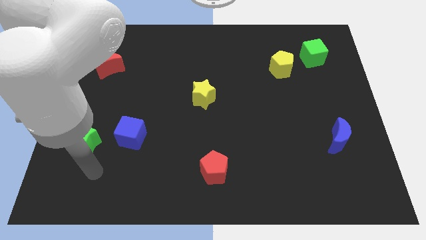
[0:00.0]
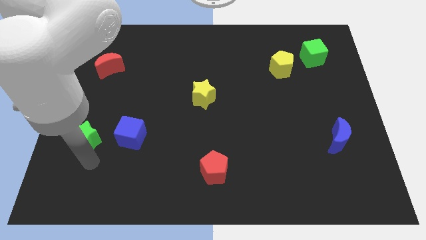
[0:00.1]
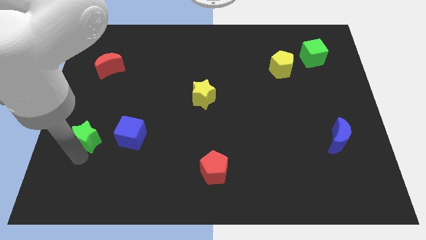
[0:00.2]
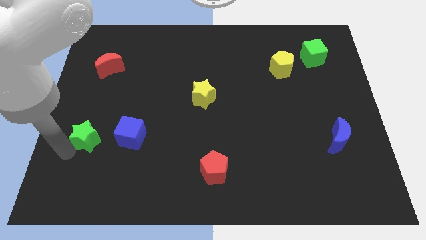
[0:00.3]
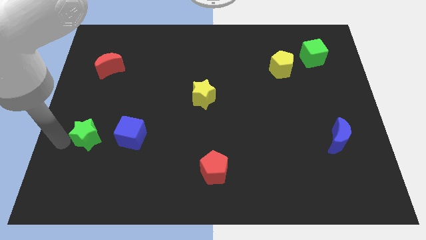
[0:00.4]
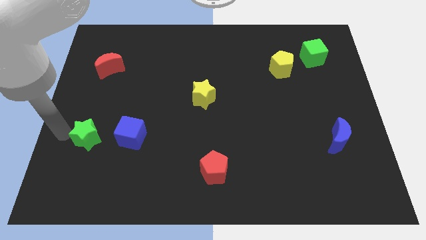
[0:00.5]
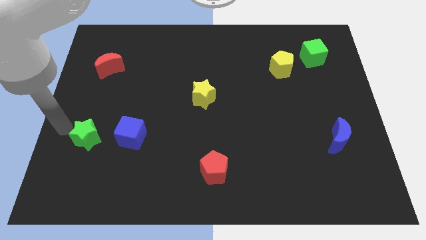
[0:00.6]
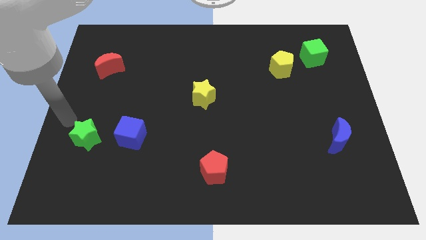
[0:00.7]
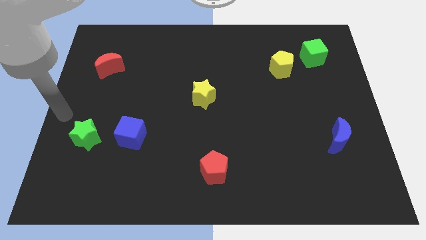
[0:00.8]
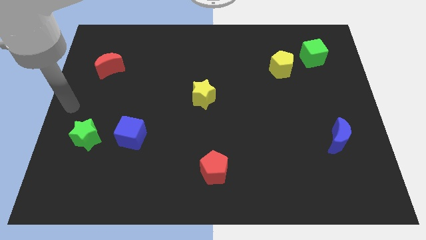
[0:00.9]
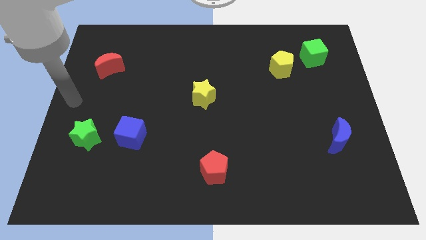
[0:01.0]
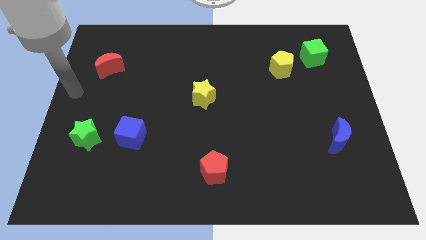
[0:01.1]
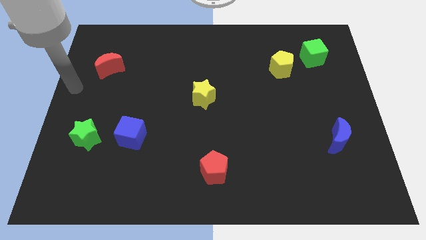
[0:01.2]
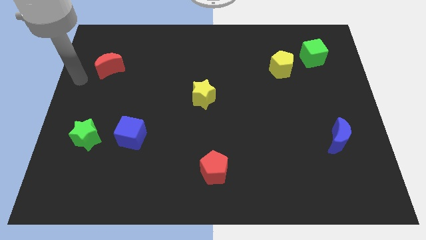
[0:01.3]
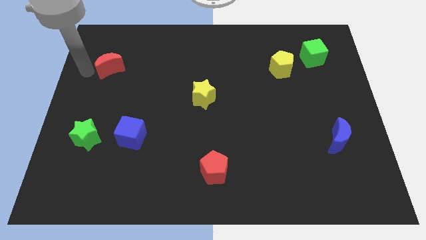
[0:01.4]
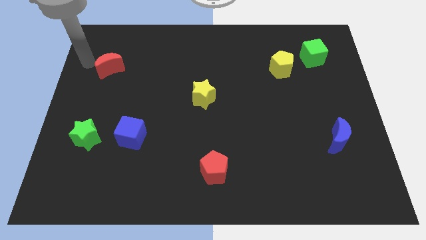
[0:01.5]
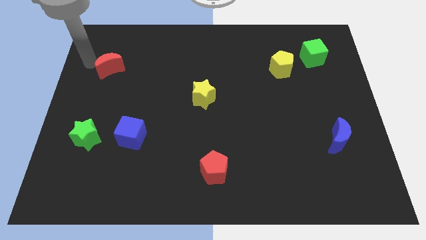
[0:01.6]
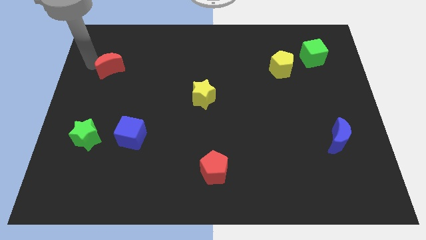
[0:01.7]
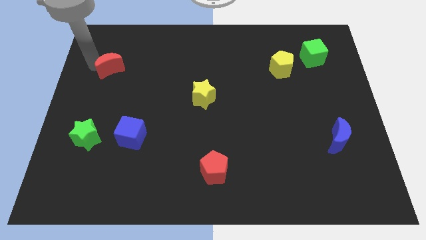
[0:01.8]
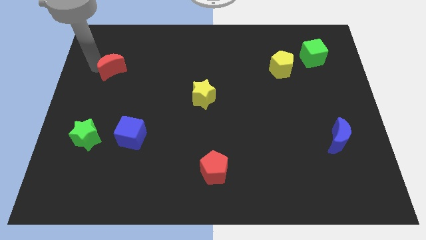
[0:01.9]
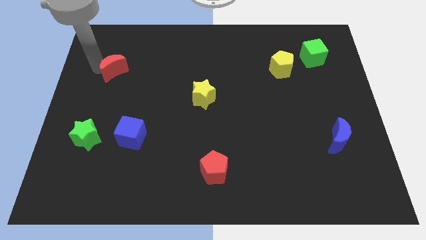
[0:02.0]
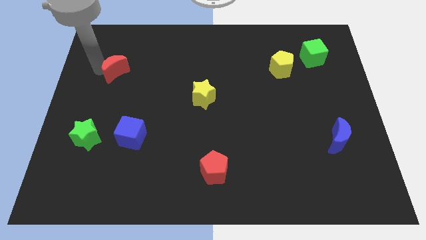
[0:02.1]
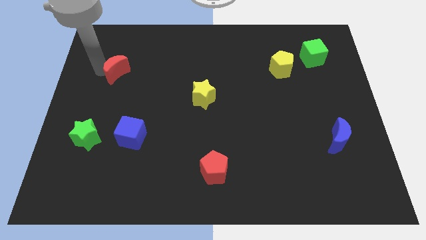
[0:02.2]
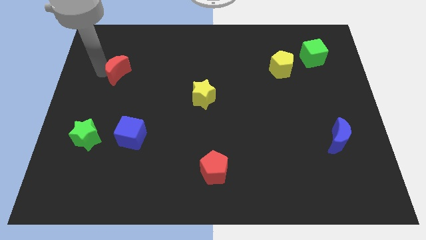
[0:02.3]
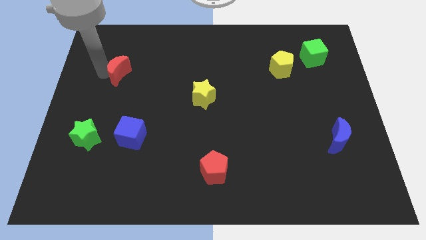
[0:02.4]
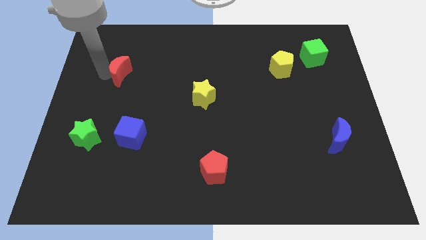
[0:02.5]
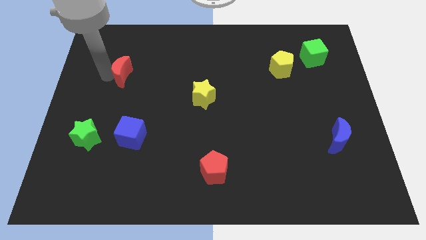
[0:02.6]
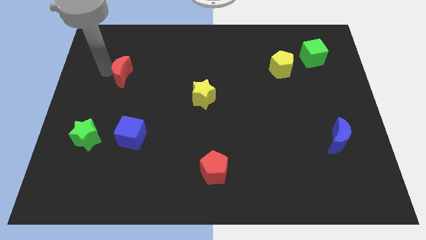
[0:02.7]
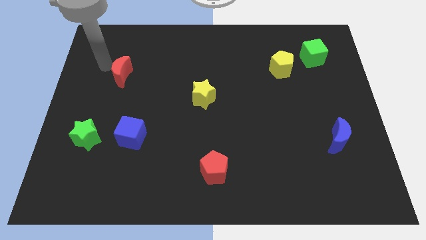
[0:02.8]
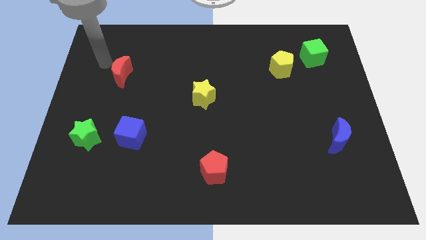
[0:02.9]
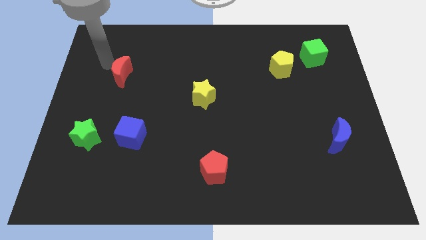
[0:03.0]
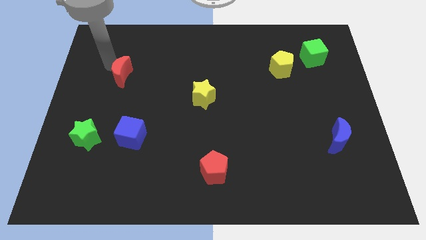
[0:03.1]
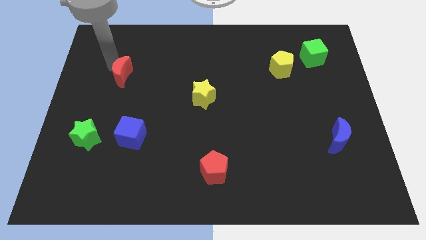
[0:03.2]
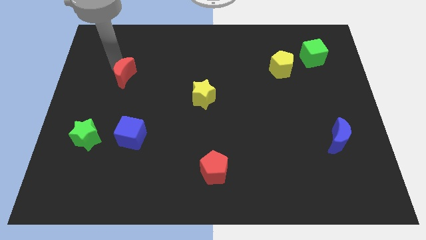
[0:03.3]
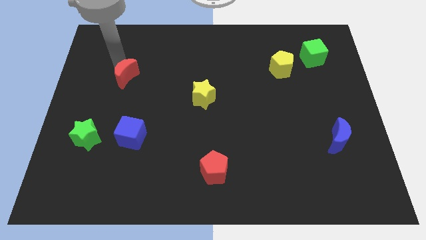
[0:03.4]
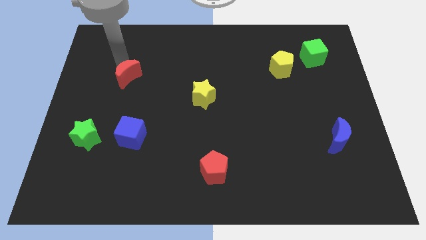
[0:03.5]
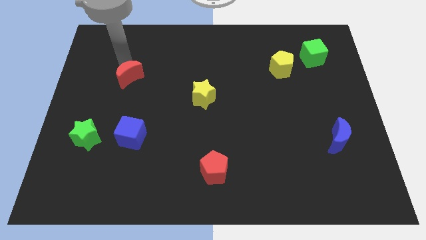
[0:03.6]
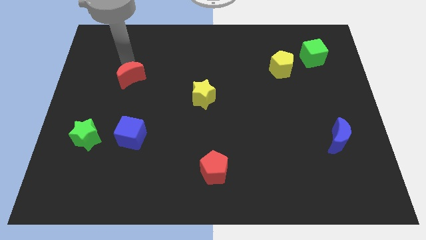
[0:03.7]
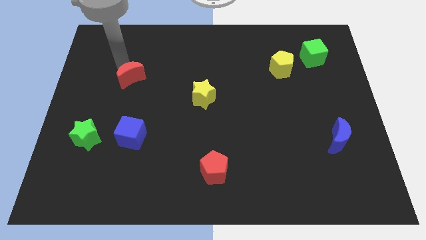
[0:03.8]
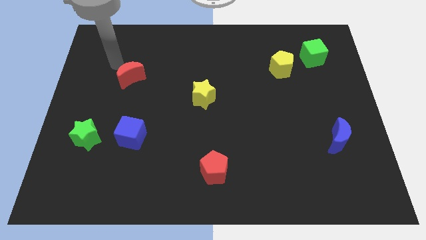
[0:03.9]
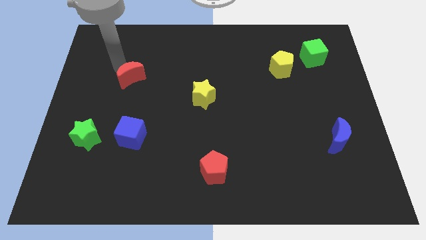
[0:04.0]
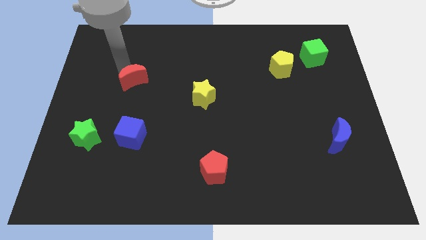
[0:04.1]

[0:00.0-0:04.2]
slightly move the red moon downwards and then to the right

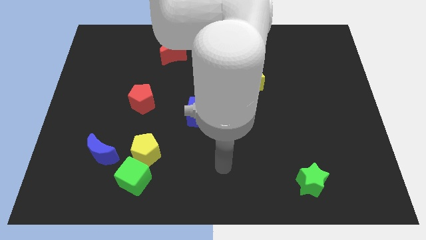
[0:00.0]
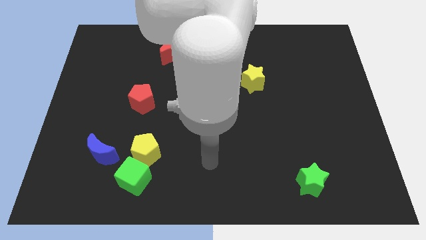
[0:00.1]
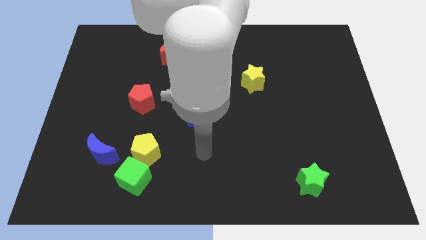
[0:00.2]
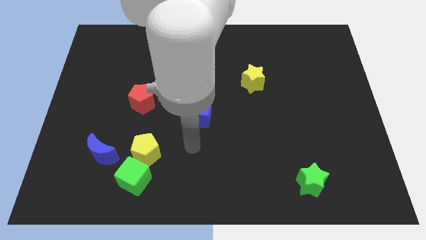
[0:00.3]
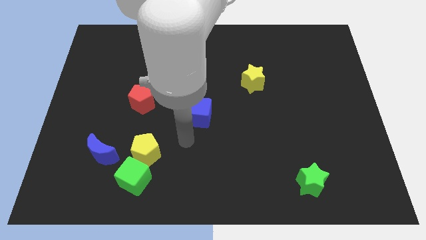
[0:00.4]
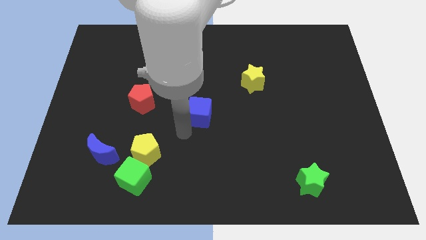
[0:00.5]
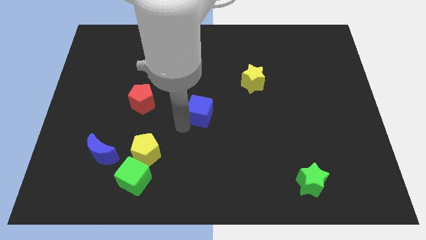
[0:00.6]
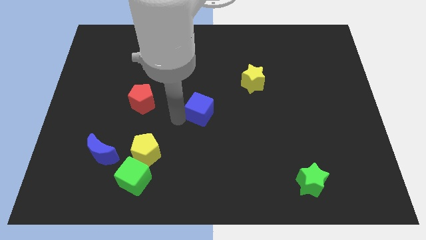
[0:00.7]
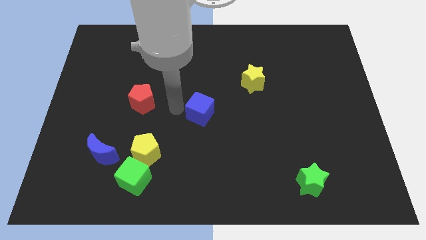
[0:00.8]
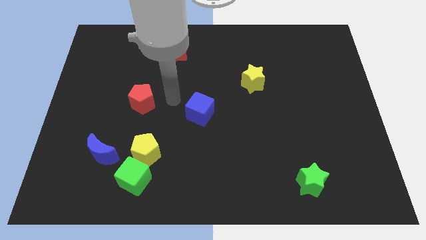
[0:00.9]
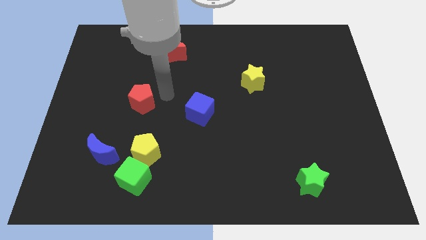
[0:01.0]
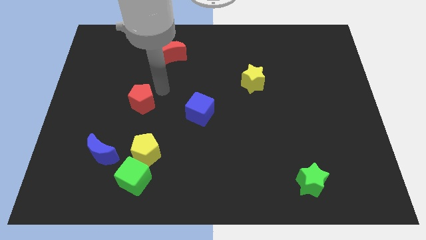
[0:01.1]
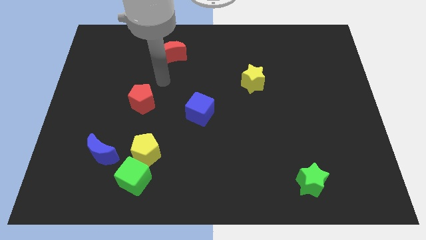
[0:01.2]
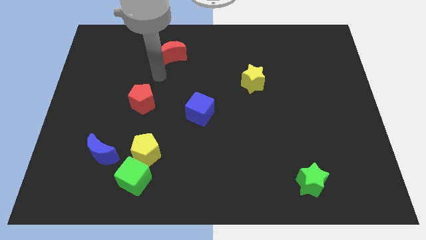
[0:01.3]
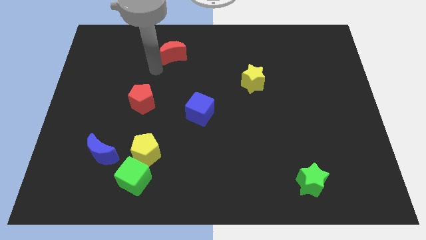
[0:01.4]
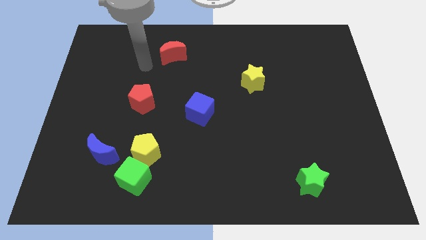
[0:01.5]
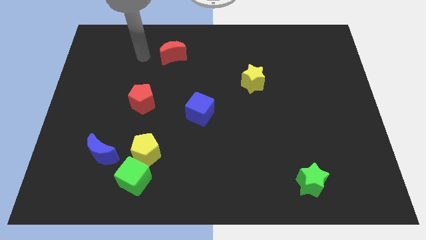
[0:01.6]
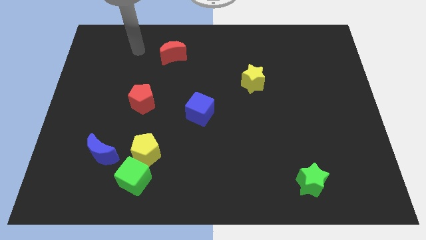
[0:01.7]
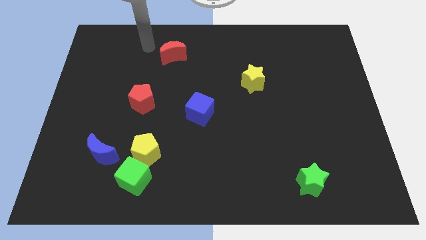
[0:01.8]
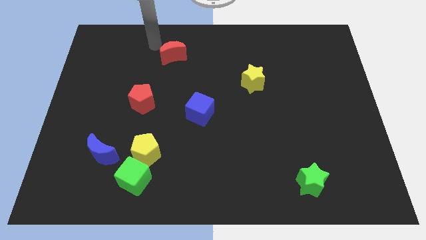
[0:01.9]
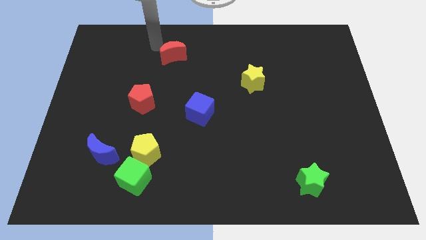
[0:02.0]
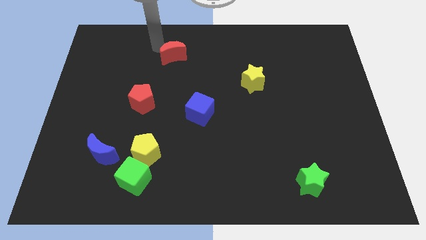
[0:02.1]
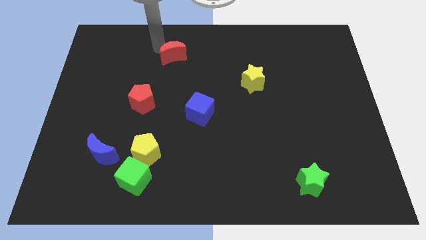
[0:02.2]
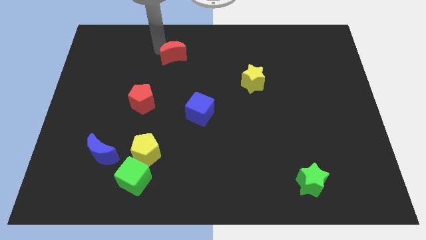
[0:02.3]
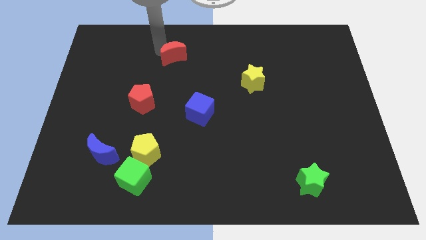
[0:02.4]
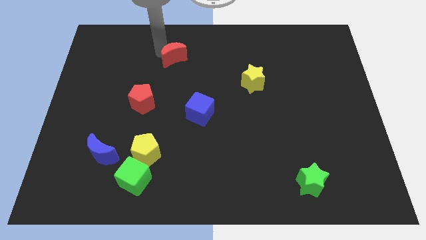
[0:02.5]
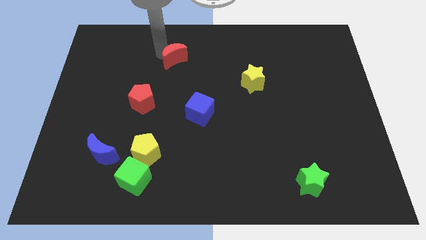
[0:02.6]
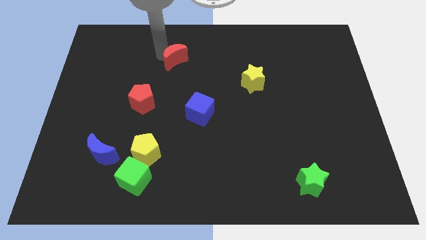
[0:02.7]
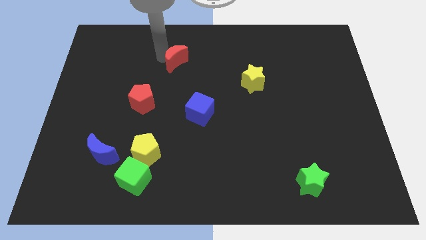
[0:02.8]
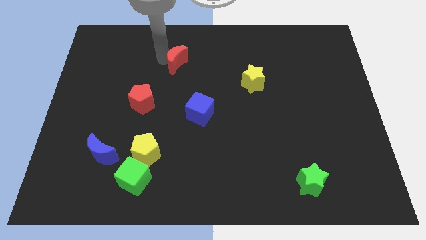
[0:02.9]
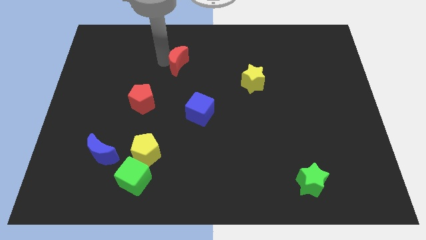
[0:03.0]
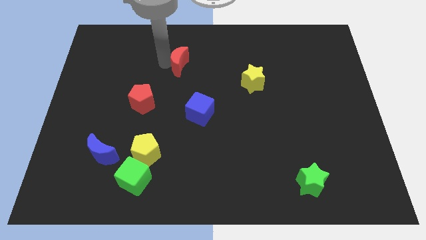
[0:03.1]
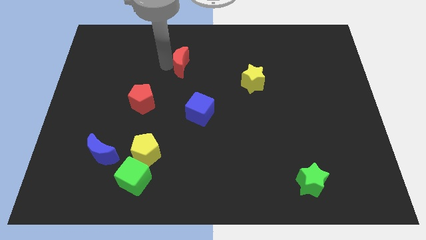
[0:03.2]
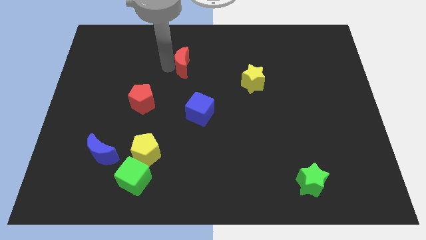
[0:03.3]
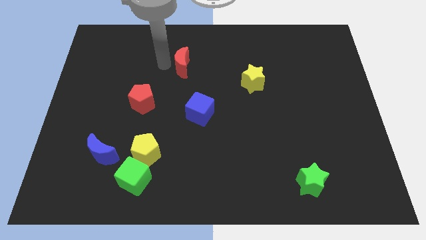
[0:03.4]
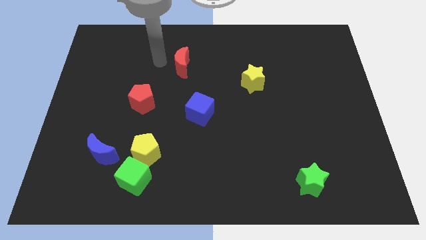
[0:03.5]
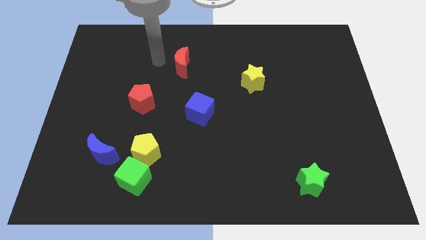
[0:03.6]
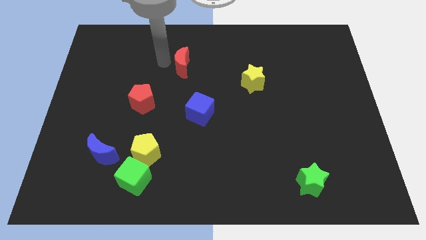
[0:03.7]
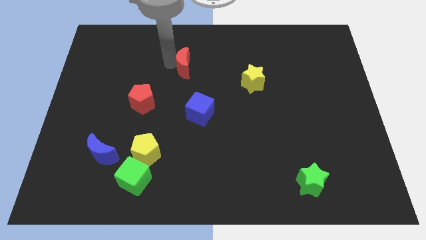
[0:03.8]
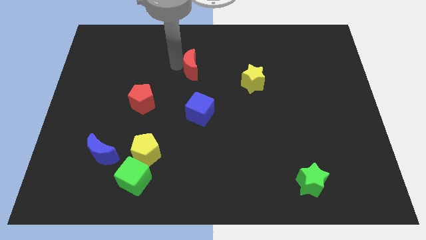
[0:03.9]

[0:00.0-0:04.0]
slide the red moon a little bit downwards and right

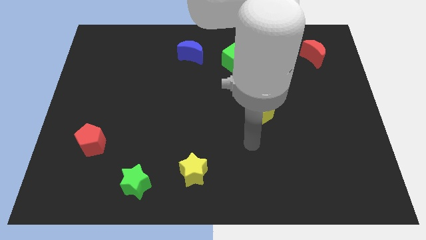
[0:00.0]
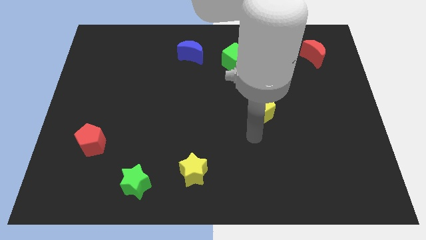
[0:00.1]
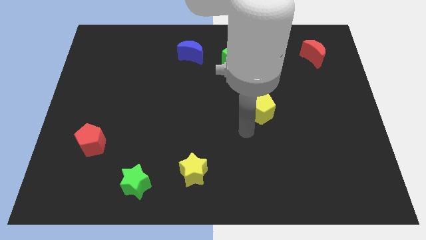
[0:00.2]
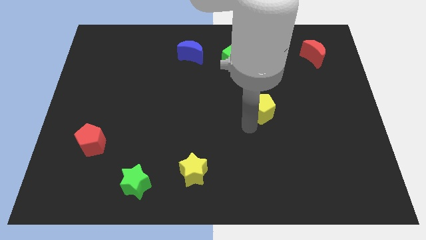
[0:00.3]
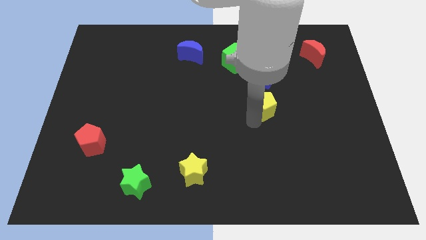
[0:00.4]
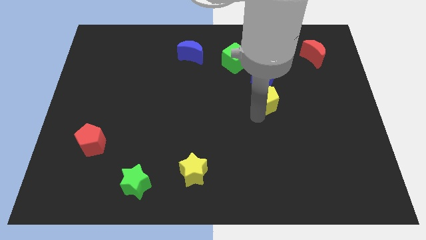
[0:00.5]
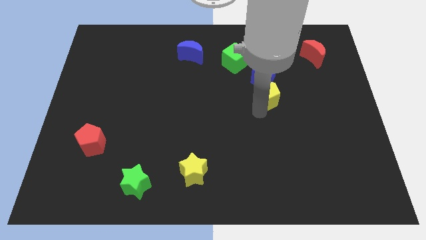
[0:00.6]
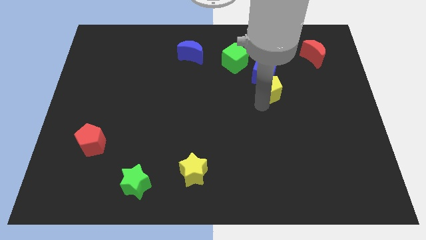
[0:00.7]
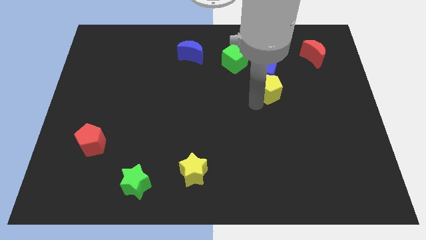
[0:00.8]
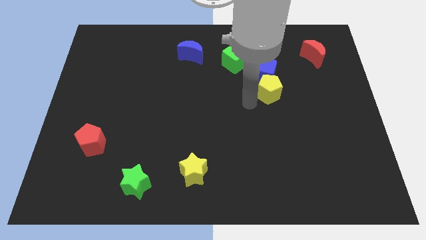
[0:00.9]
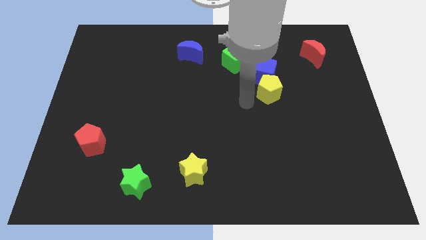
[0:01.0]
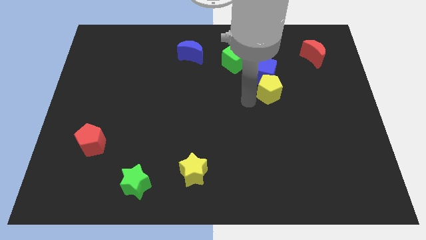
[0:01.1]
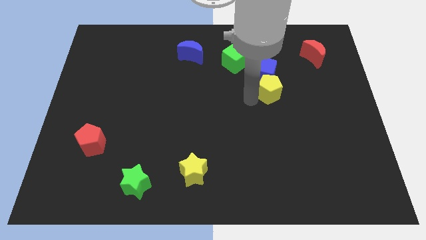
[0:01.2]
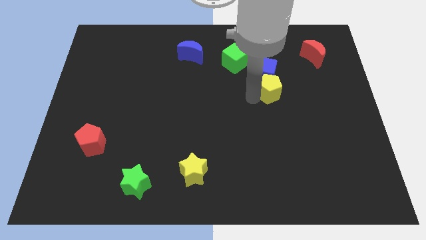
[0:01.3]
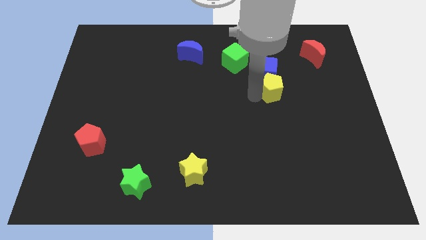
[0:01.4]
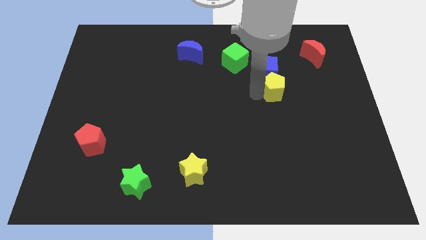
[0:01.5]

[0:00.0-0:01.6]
move the yellow pentagon somewhat diagonally upwards and right
